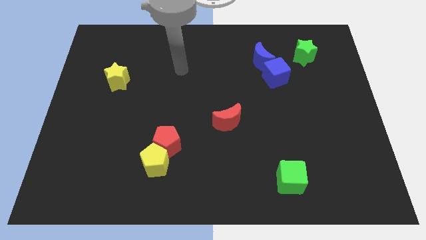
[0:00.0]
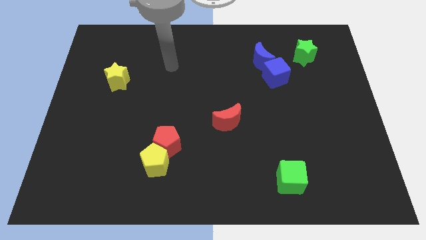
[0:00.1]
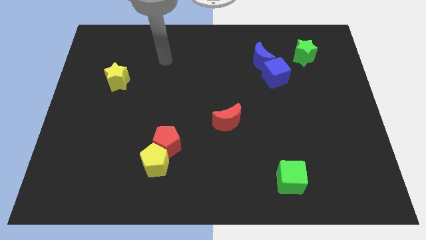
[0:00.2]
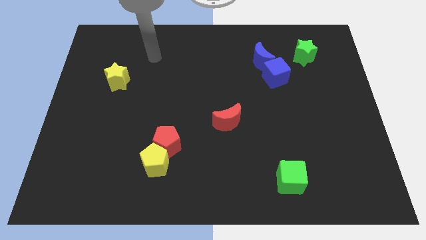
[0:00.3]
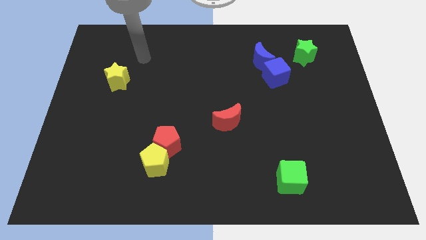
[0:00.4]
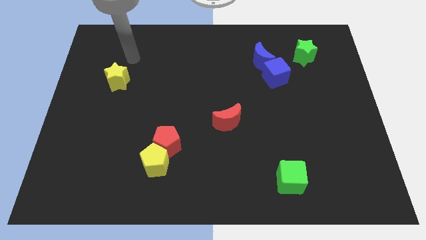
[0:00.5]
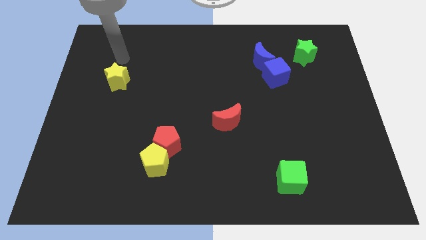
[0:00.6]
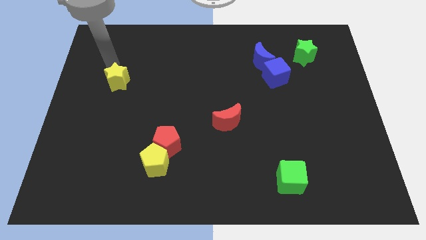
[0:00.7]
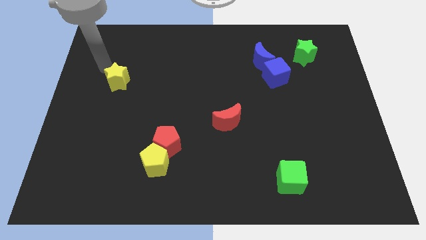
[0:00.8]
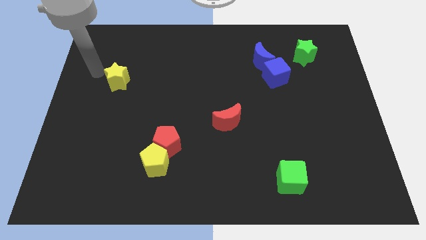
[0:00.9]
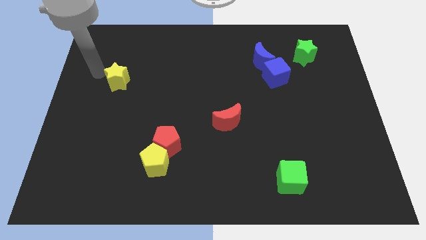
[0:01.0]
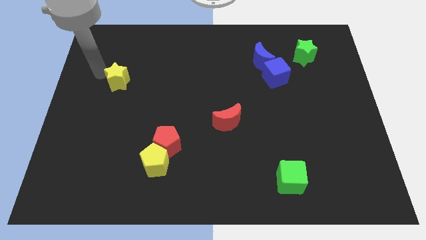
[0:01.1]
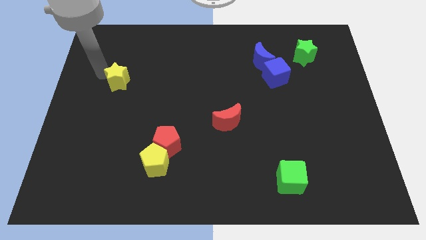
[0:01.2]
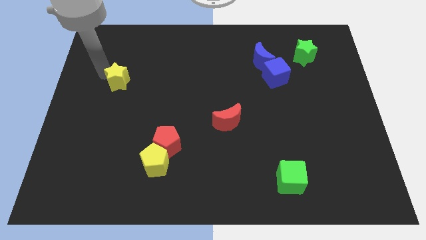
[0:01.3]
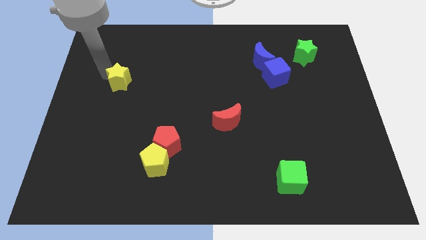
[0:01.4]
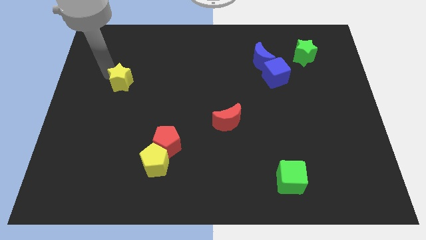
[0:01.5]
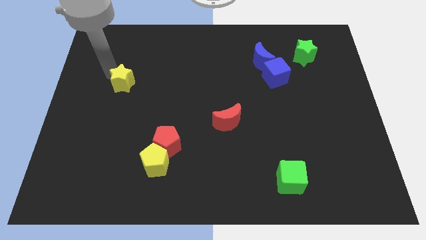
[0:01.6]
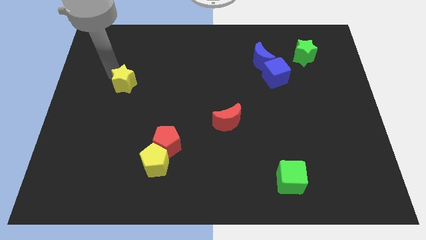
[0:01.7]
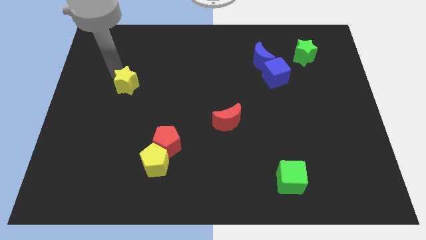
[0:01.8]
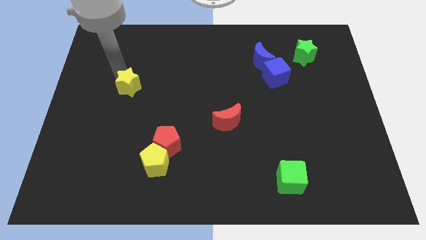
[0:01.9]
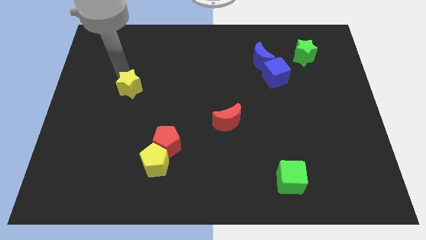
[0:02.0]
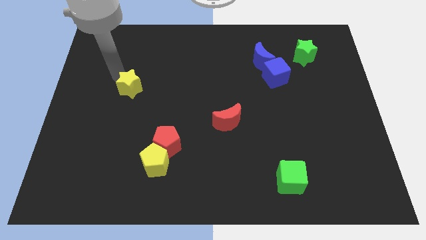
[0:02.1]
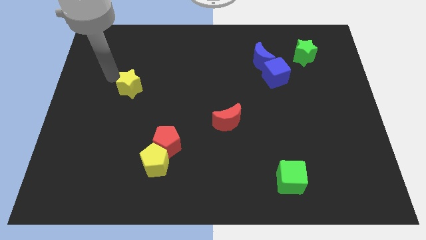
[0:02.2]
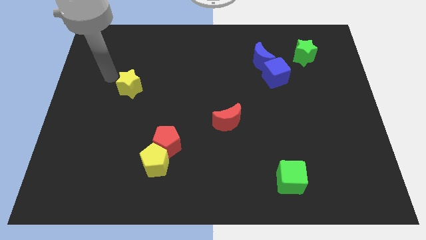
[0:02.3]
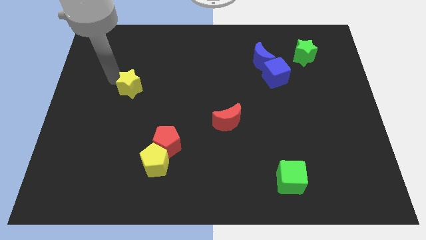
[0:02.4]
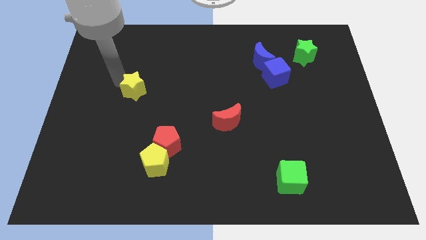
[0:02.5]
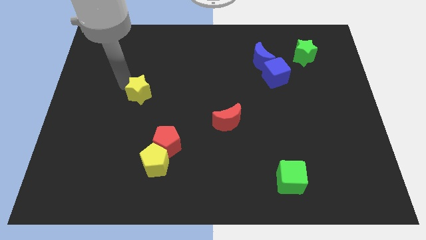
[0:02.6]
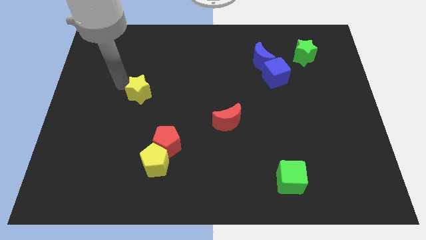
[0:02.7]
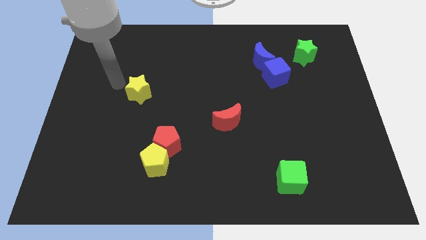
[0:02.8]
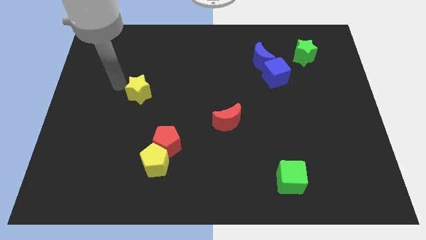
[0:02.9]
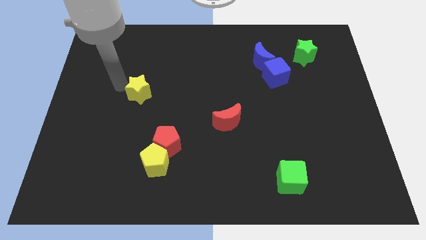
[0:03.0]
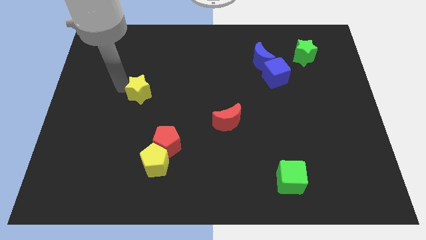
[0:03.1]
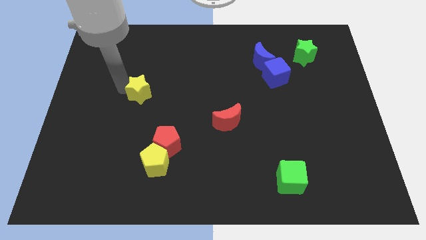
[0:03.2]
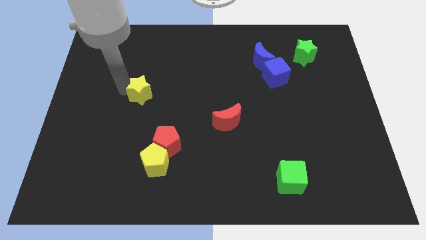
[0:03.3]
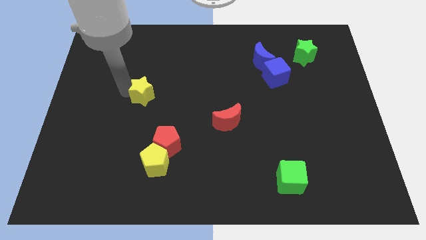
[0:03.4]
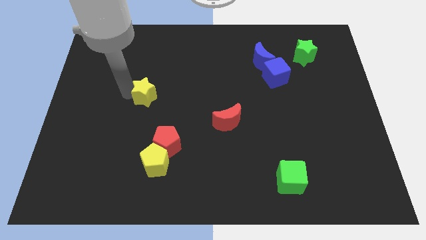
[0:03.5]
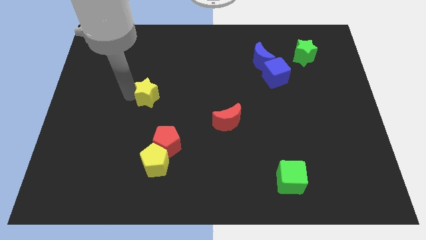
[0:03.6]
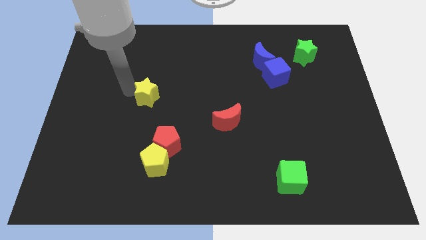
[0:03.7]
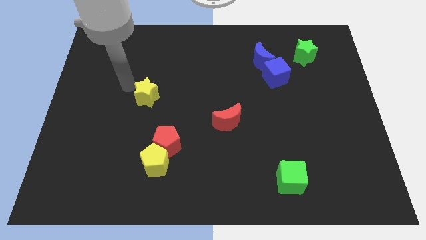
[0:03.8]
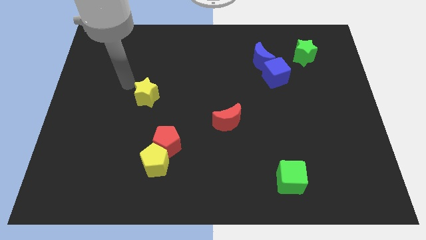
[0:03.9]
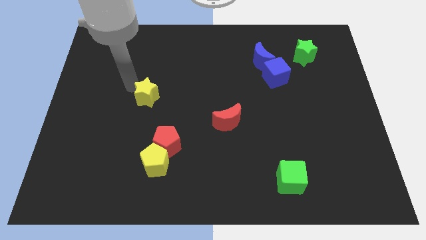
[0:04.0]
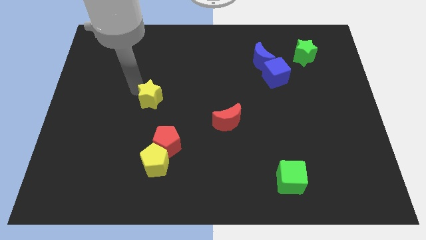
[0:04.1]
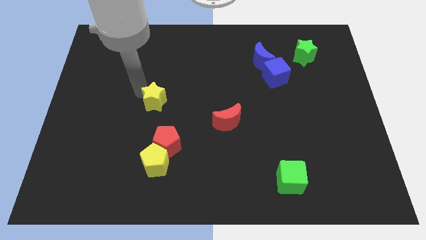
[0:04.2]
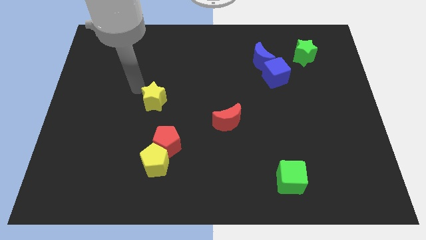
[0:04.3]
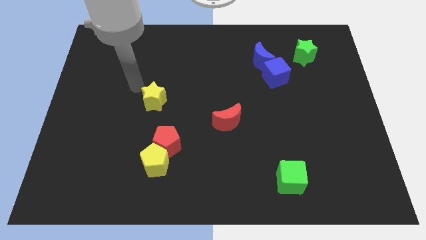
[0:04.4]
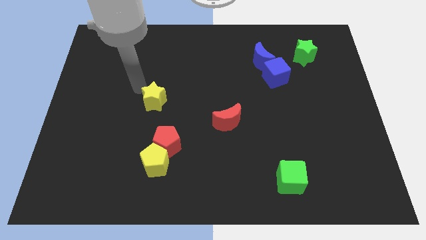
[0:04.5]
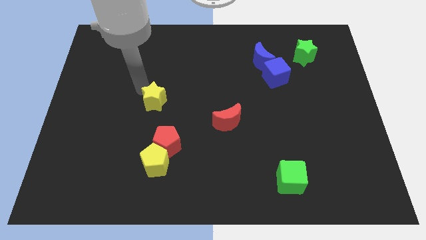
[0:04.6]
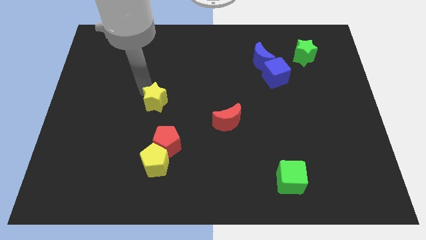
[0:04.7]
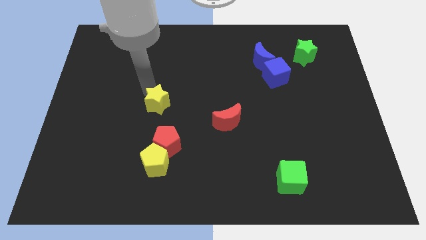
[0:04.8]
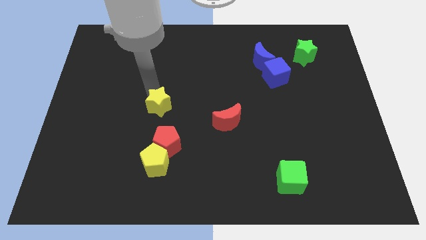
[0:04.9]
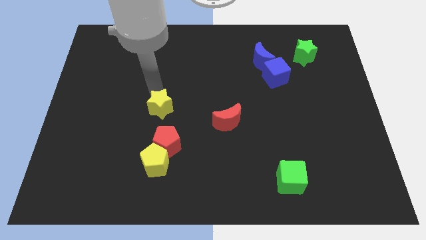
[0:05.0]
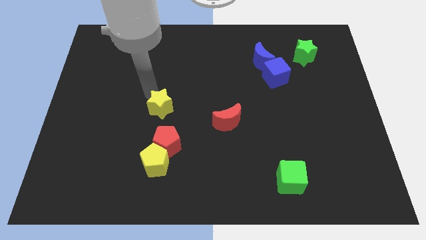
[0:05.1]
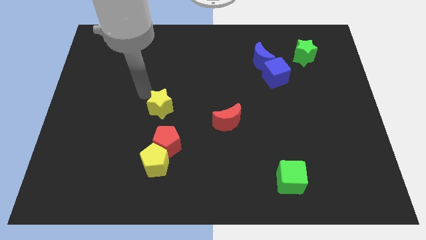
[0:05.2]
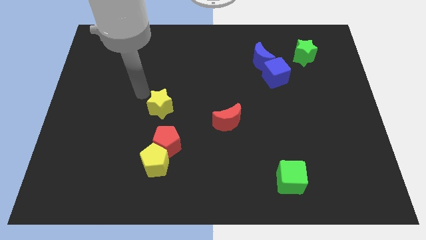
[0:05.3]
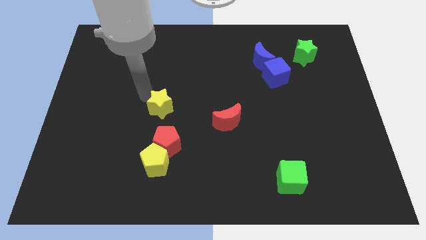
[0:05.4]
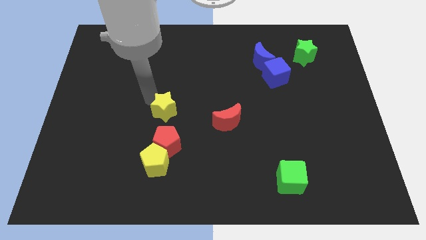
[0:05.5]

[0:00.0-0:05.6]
slide the yellow star just left of the red moon

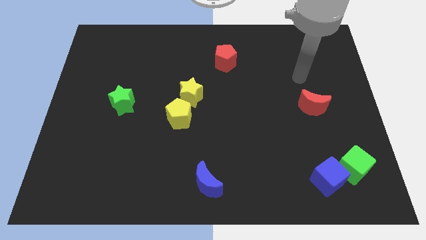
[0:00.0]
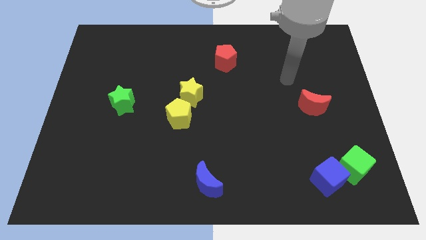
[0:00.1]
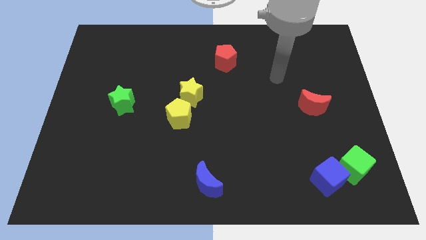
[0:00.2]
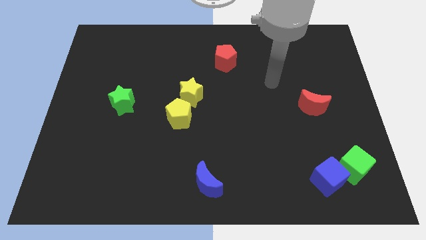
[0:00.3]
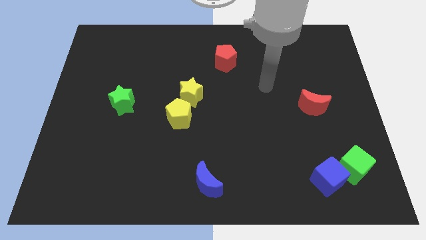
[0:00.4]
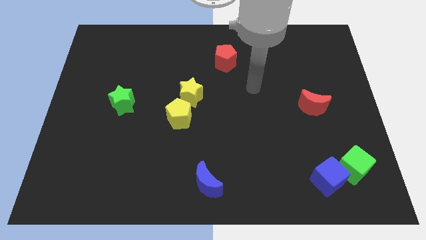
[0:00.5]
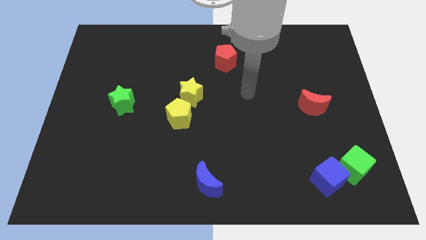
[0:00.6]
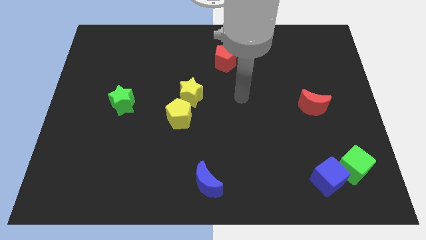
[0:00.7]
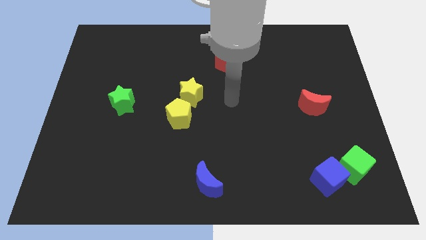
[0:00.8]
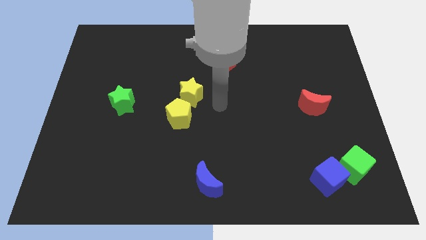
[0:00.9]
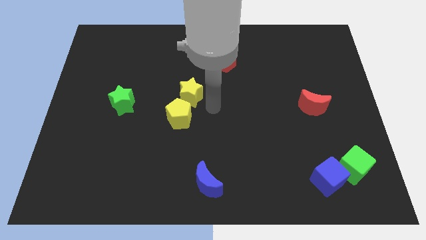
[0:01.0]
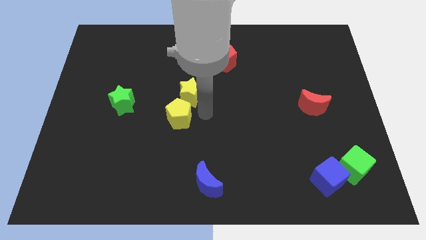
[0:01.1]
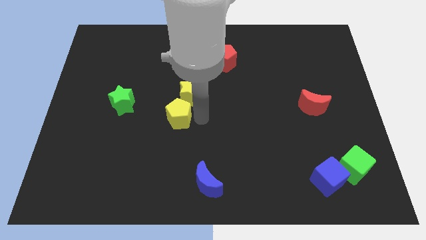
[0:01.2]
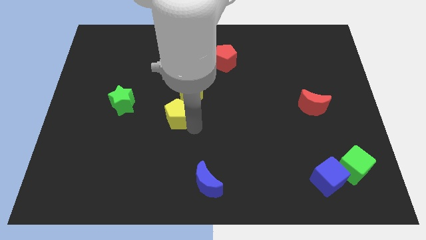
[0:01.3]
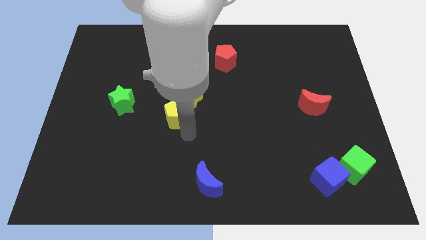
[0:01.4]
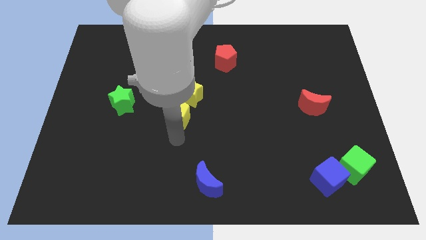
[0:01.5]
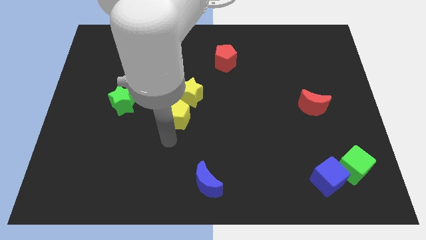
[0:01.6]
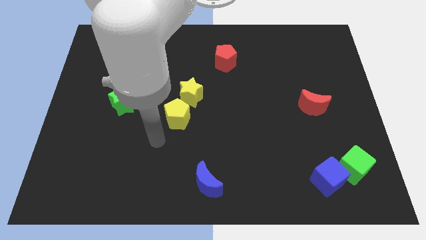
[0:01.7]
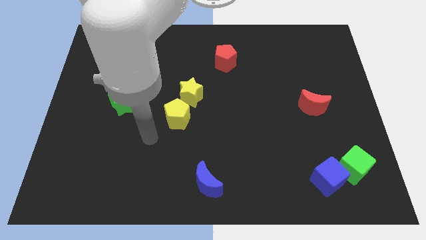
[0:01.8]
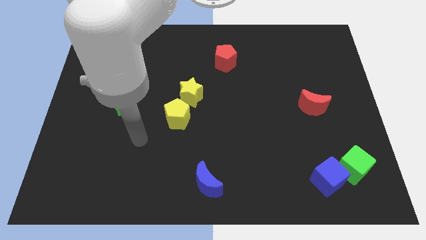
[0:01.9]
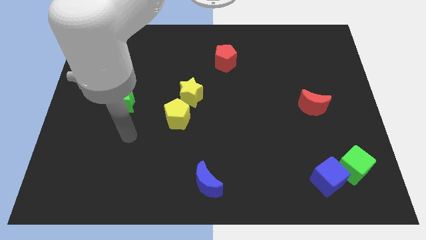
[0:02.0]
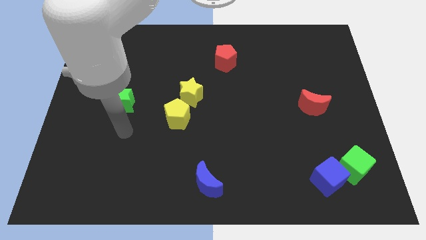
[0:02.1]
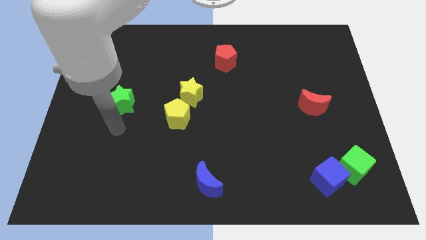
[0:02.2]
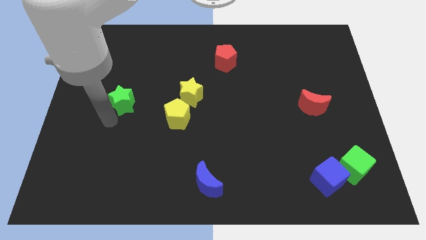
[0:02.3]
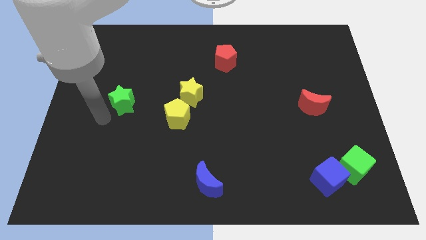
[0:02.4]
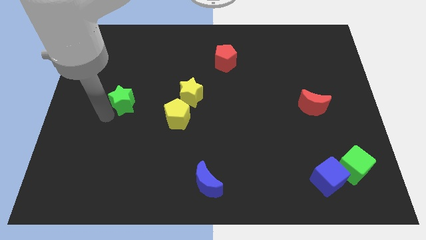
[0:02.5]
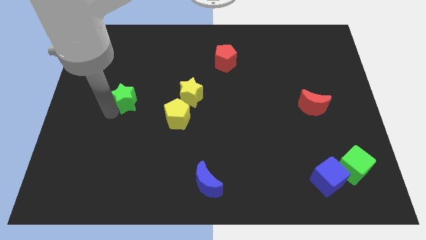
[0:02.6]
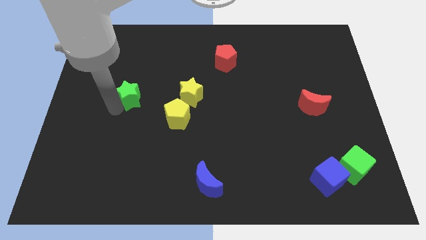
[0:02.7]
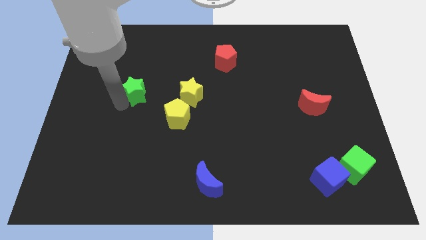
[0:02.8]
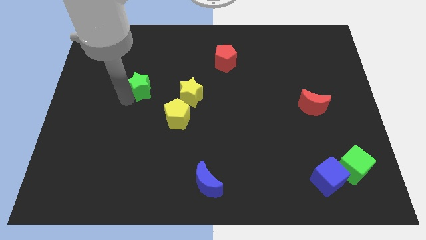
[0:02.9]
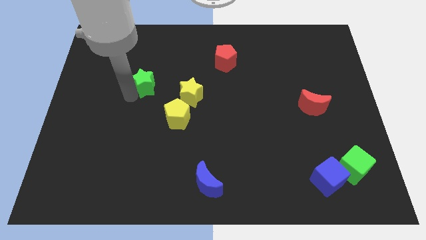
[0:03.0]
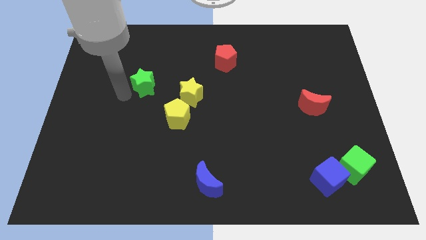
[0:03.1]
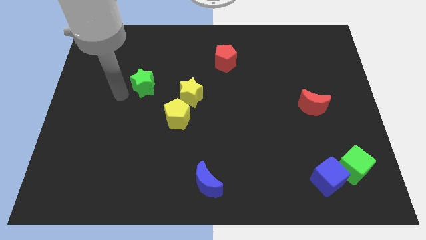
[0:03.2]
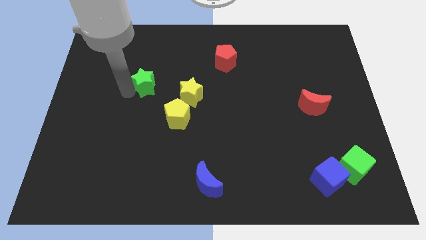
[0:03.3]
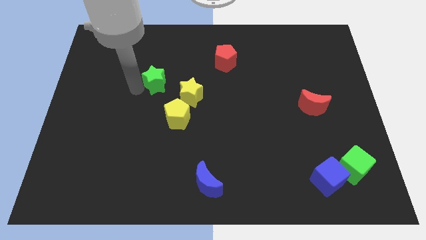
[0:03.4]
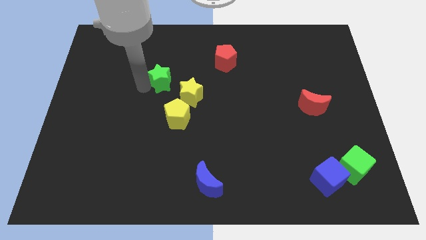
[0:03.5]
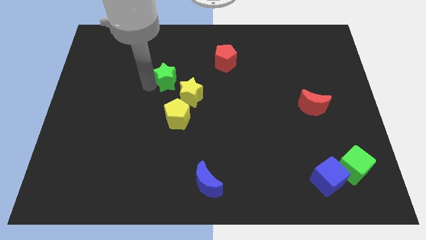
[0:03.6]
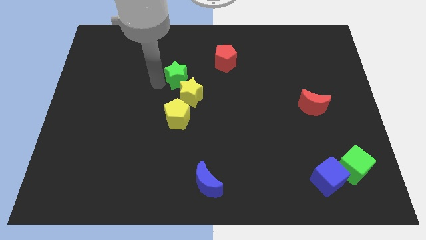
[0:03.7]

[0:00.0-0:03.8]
move the green star above the yellow star
